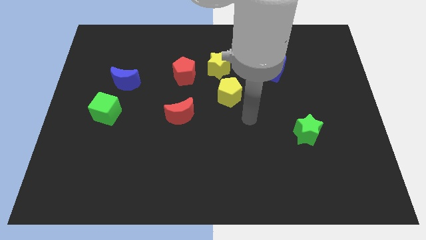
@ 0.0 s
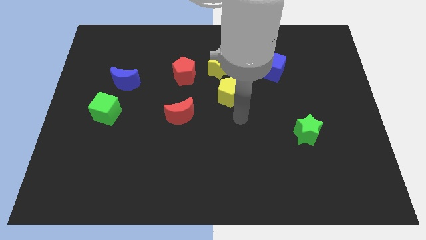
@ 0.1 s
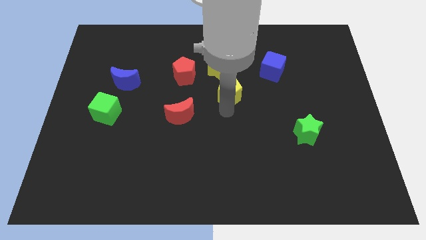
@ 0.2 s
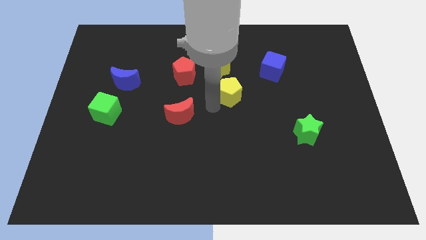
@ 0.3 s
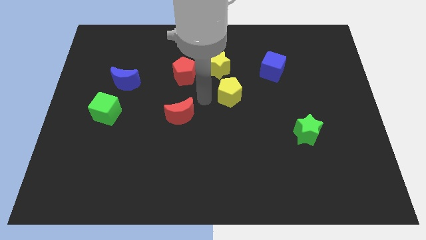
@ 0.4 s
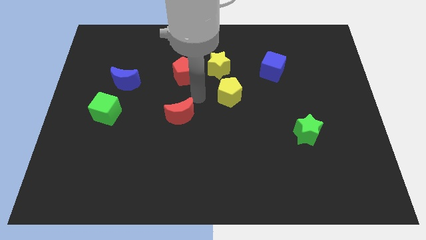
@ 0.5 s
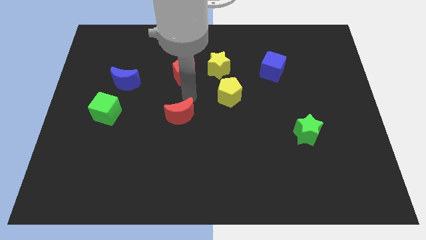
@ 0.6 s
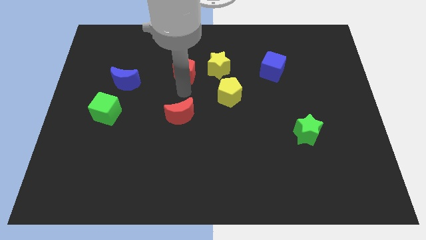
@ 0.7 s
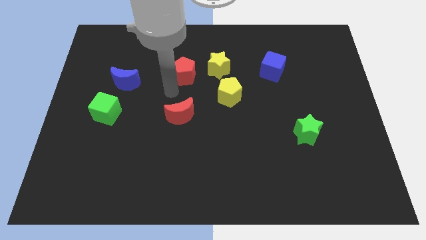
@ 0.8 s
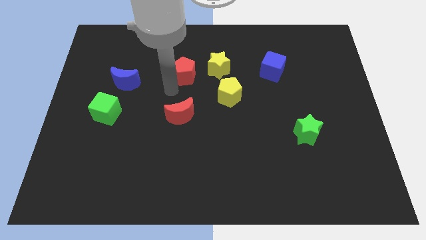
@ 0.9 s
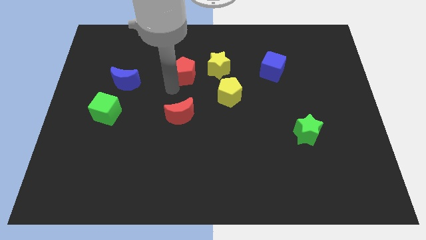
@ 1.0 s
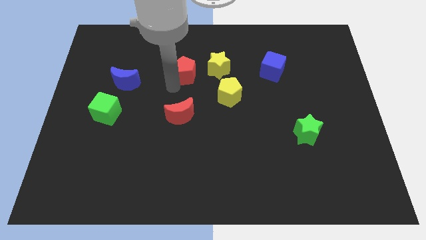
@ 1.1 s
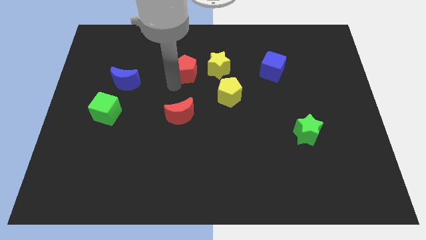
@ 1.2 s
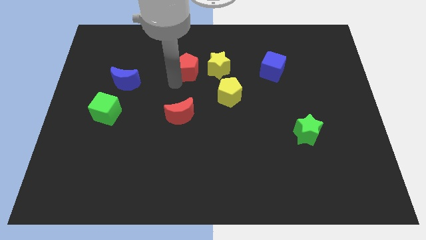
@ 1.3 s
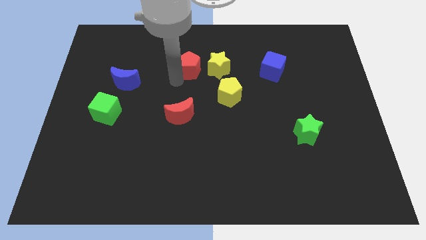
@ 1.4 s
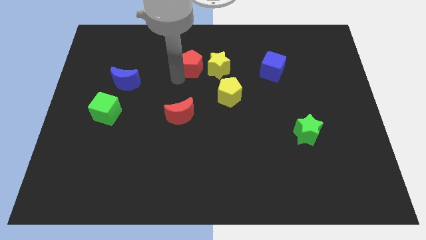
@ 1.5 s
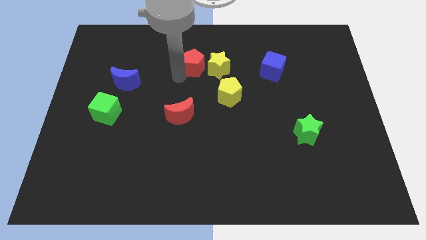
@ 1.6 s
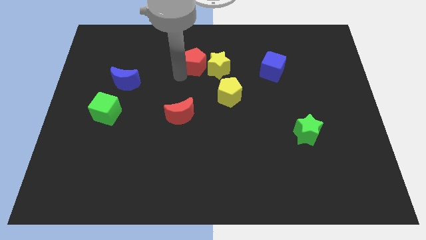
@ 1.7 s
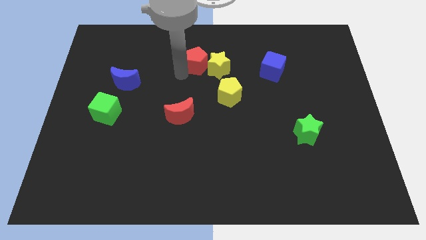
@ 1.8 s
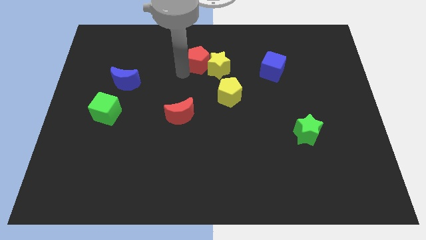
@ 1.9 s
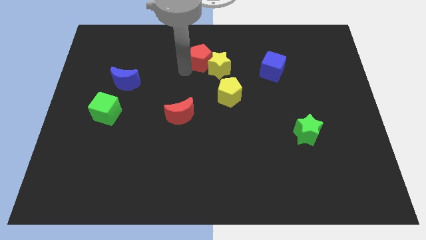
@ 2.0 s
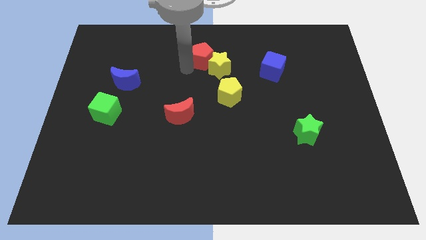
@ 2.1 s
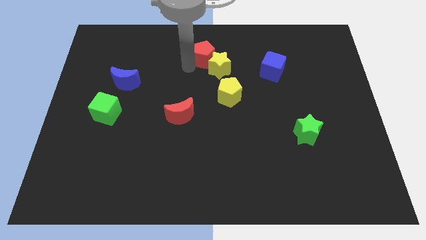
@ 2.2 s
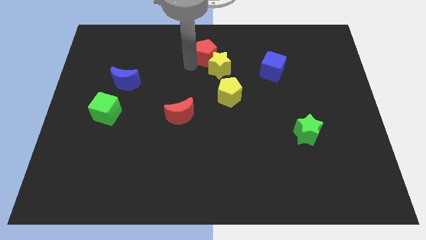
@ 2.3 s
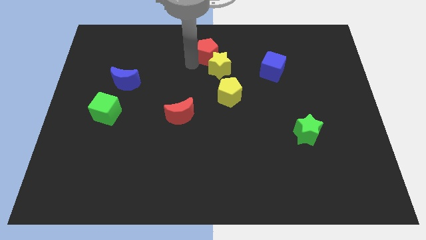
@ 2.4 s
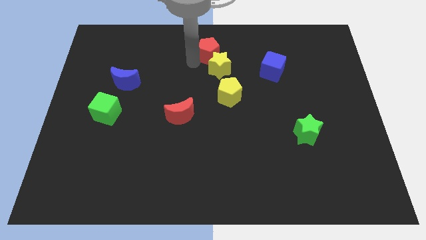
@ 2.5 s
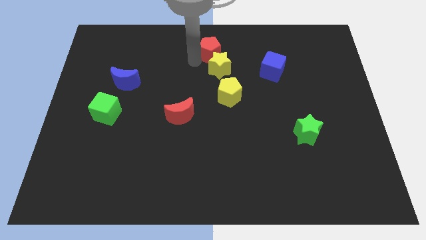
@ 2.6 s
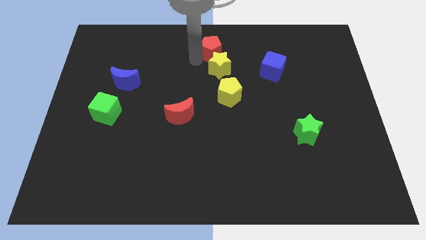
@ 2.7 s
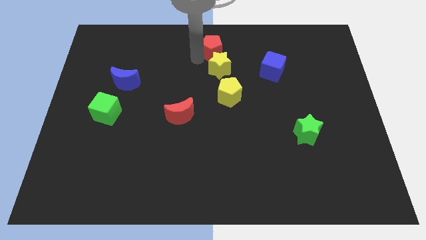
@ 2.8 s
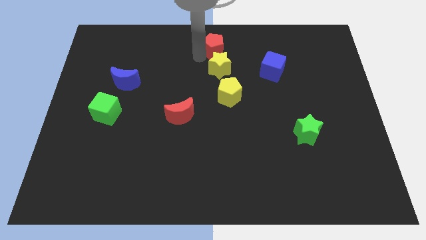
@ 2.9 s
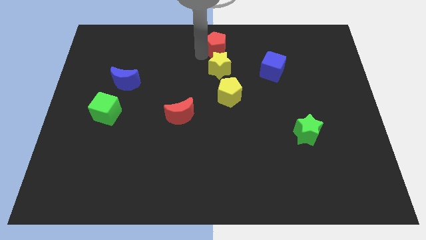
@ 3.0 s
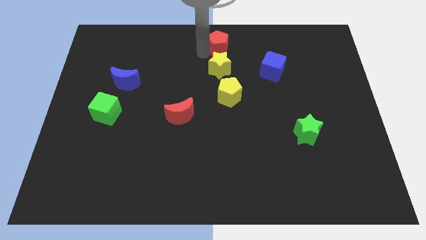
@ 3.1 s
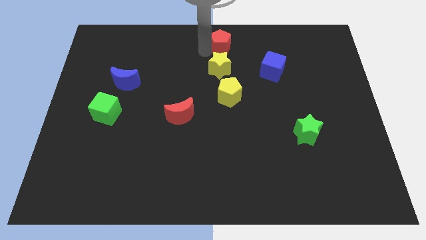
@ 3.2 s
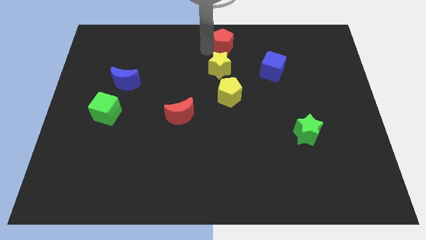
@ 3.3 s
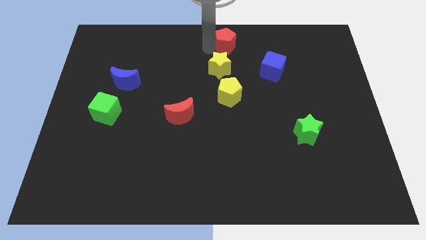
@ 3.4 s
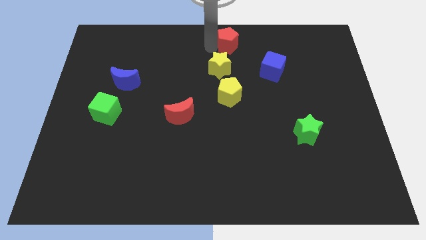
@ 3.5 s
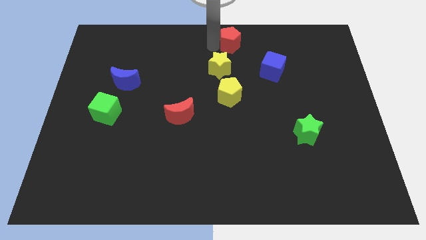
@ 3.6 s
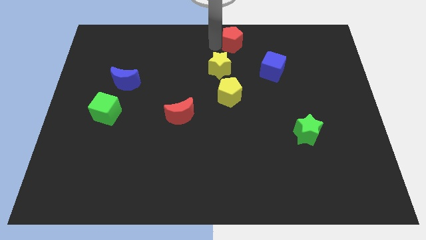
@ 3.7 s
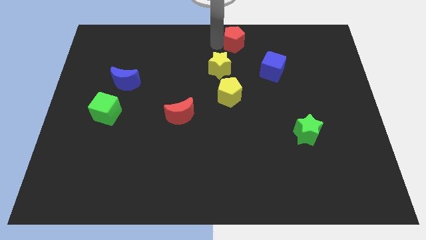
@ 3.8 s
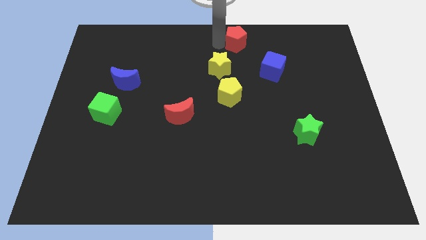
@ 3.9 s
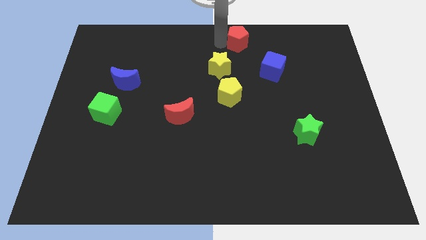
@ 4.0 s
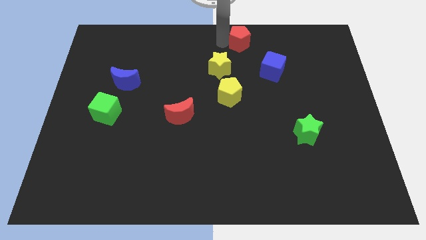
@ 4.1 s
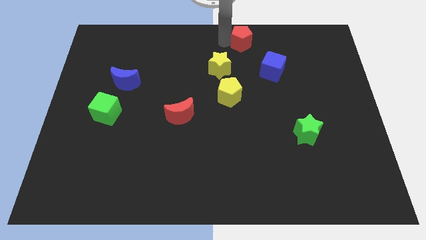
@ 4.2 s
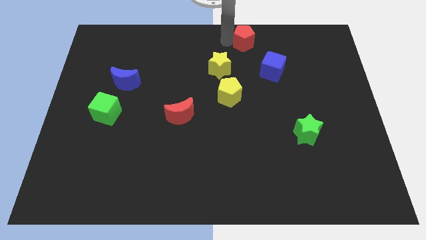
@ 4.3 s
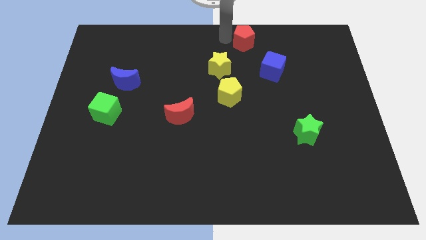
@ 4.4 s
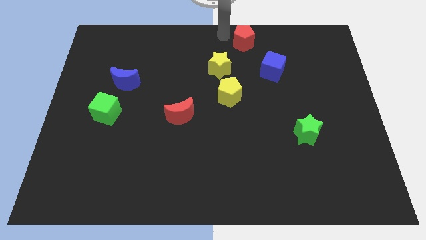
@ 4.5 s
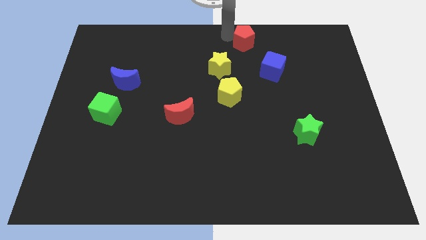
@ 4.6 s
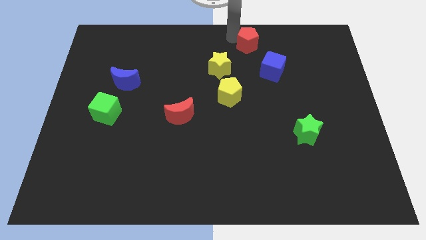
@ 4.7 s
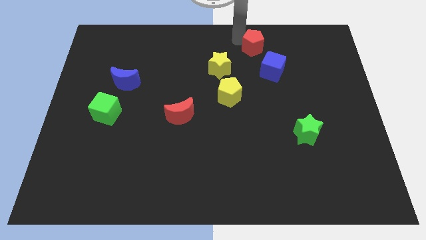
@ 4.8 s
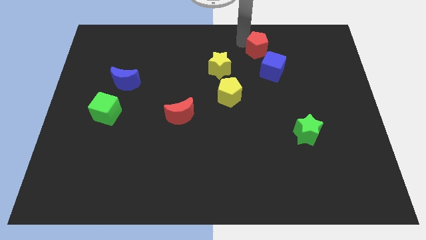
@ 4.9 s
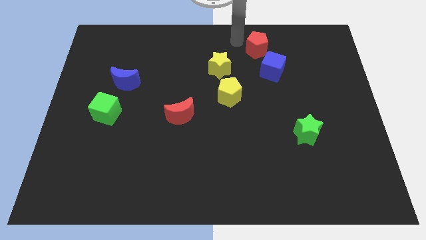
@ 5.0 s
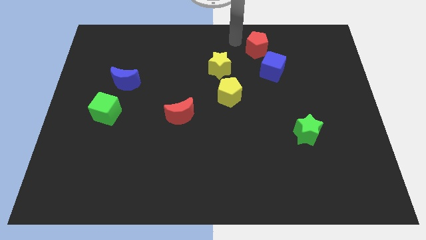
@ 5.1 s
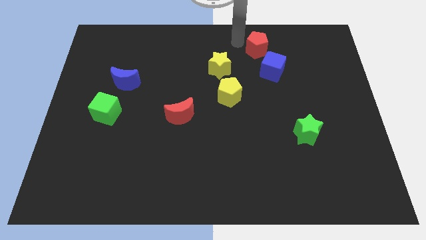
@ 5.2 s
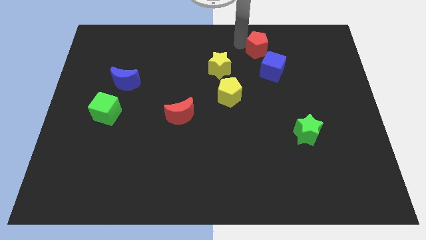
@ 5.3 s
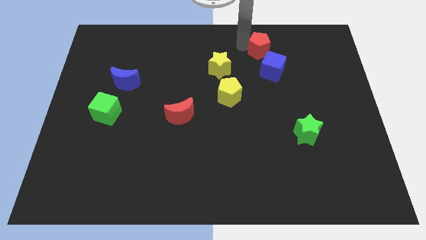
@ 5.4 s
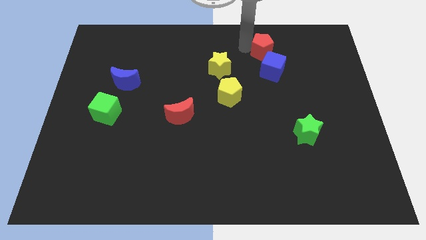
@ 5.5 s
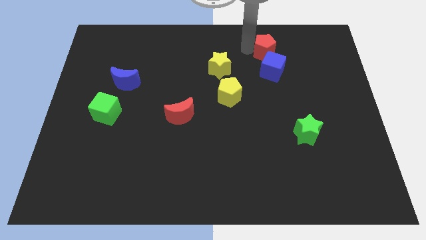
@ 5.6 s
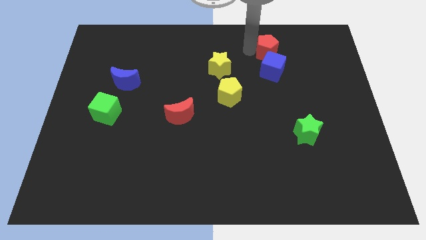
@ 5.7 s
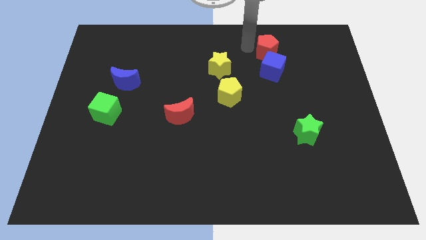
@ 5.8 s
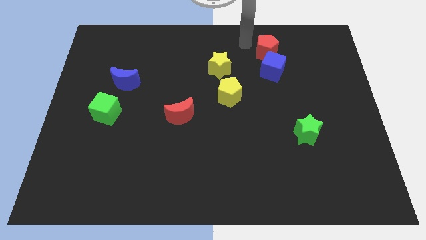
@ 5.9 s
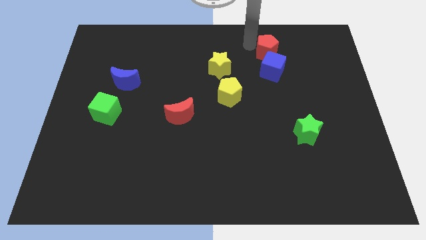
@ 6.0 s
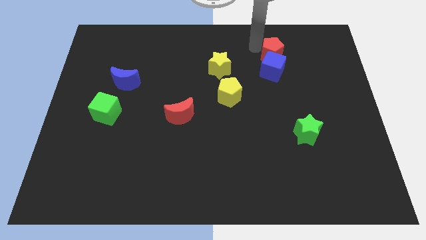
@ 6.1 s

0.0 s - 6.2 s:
move the red pentagon right

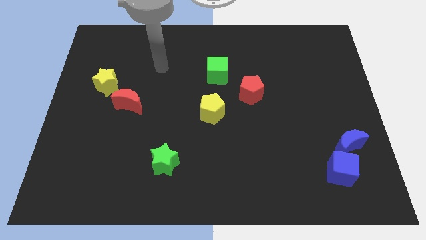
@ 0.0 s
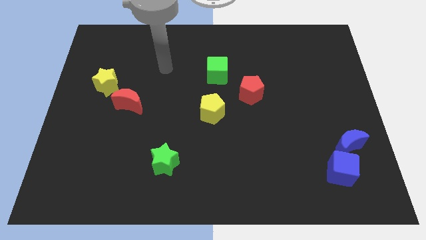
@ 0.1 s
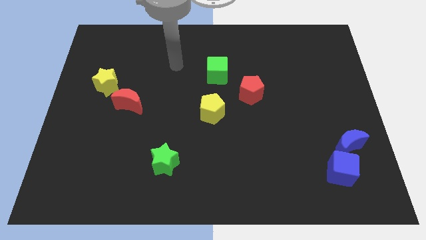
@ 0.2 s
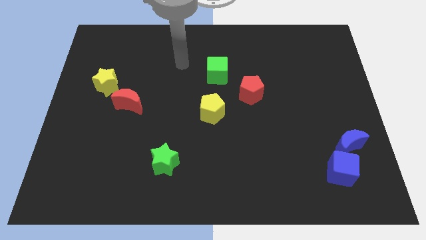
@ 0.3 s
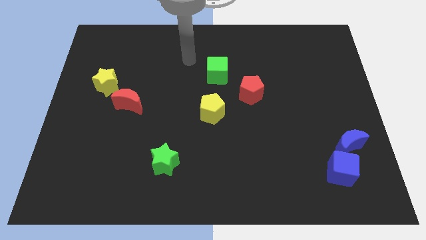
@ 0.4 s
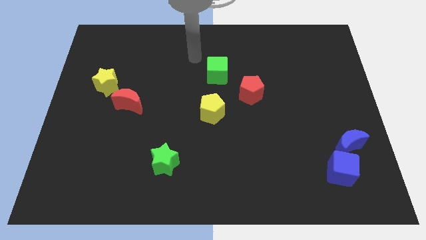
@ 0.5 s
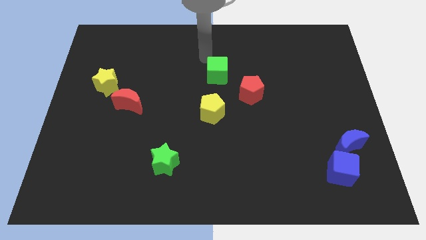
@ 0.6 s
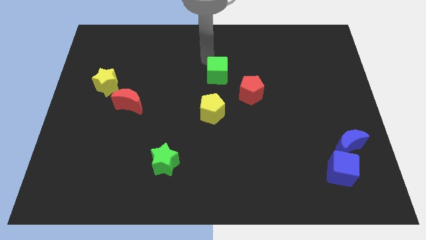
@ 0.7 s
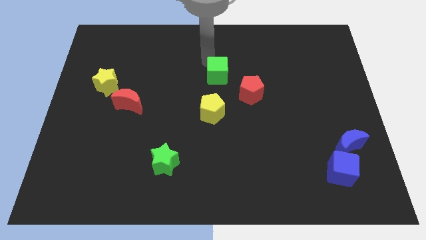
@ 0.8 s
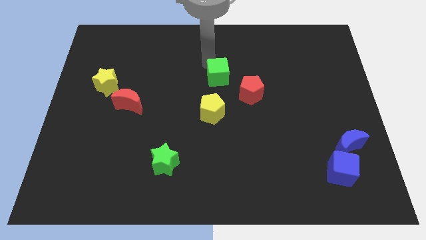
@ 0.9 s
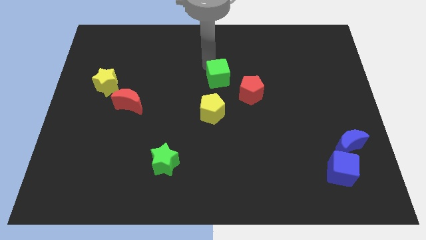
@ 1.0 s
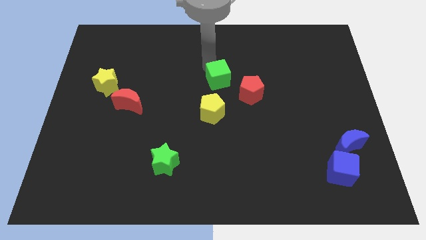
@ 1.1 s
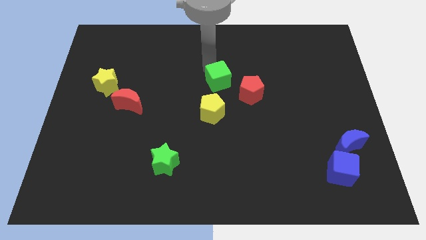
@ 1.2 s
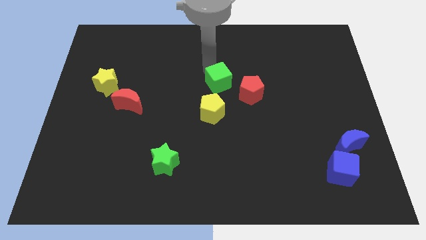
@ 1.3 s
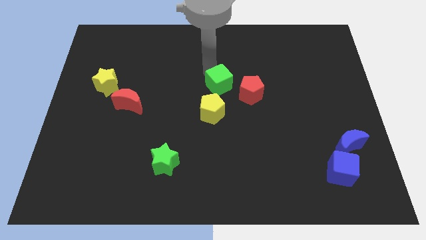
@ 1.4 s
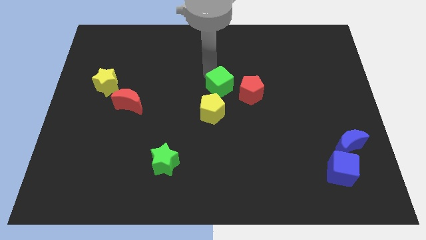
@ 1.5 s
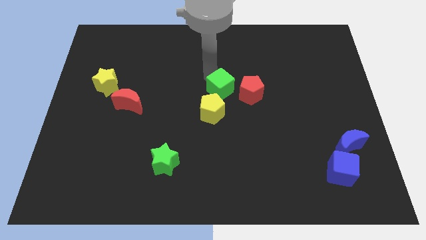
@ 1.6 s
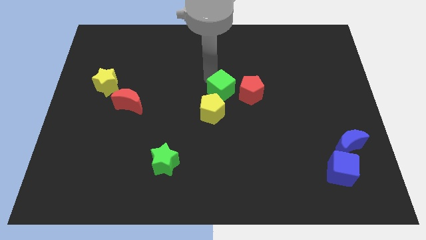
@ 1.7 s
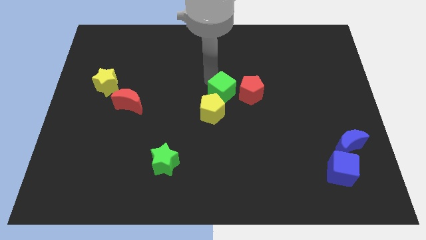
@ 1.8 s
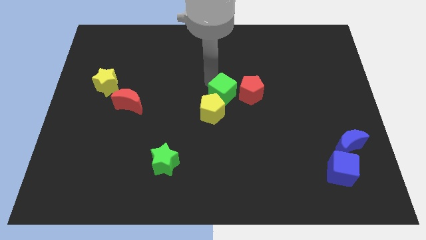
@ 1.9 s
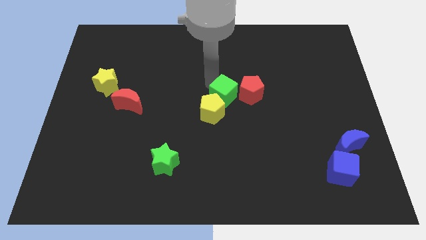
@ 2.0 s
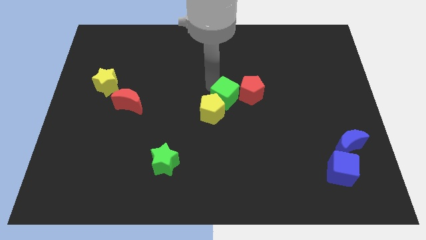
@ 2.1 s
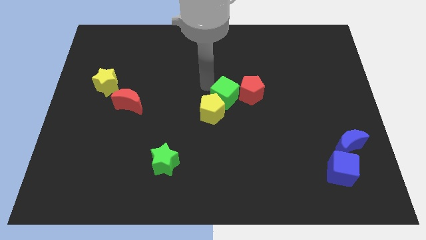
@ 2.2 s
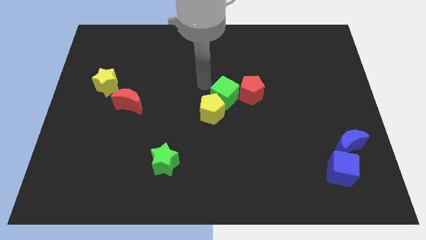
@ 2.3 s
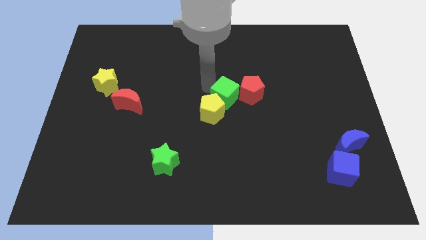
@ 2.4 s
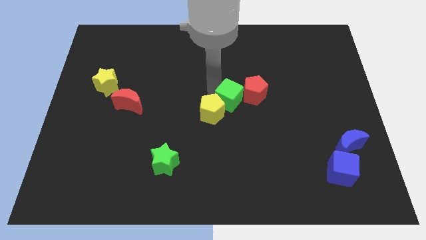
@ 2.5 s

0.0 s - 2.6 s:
slightly slide the green cube diagonally down and to the right
